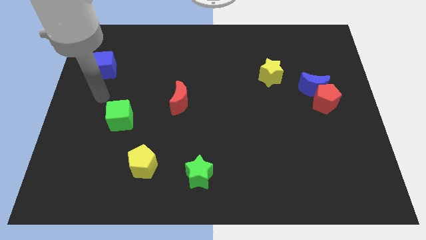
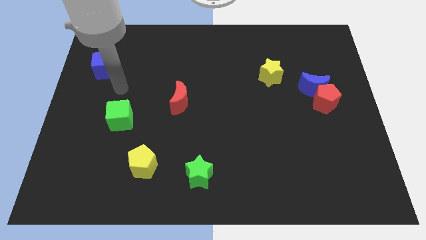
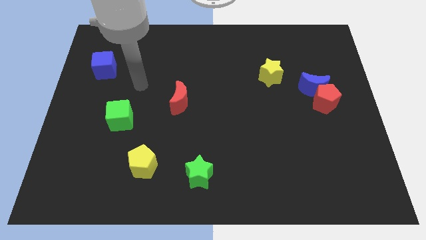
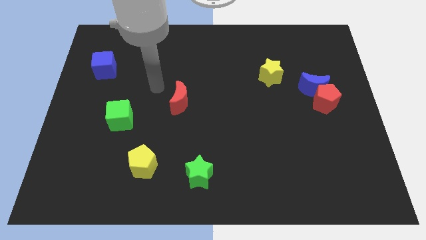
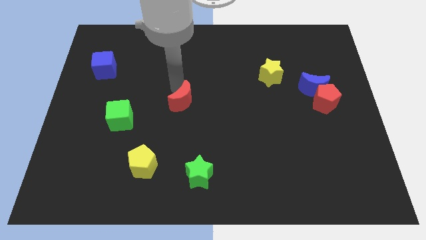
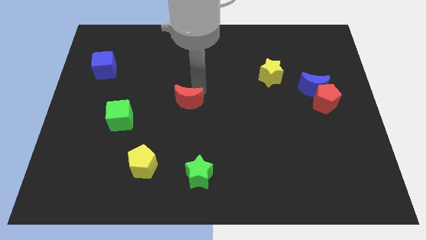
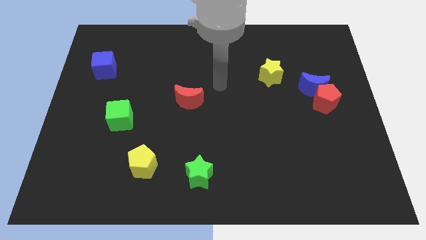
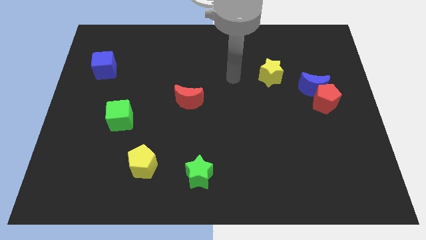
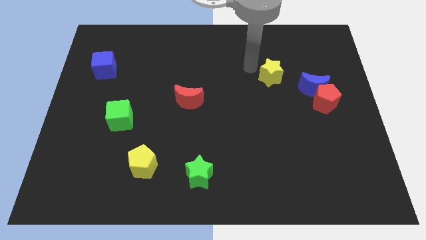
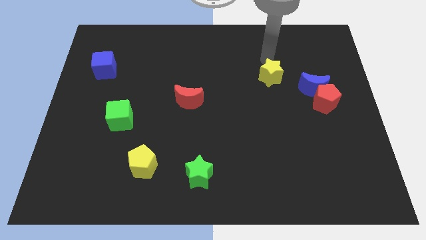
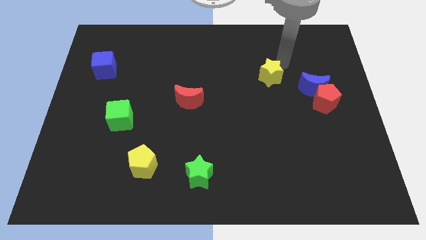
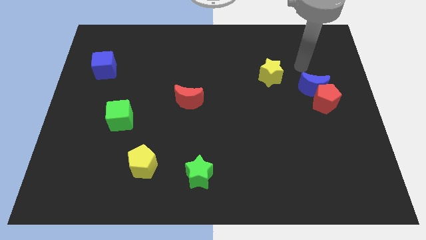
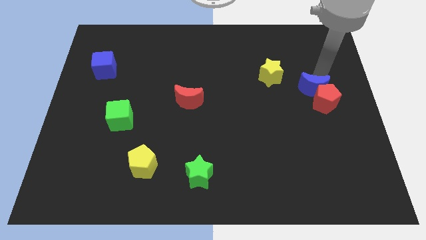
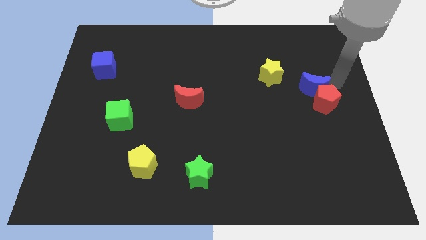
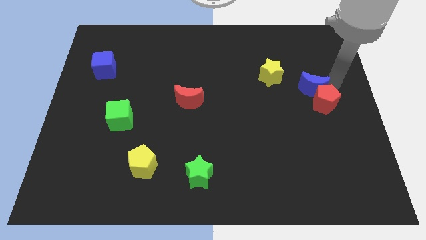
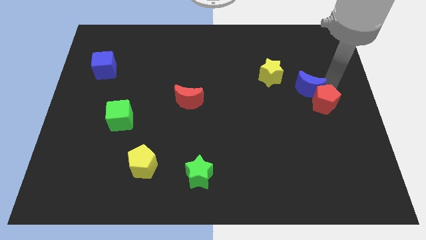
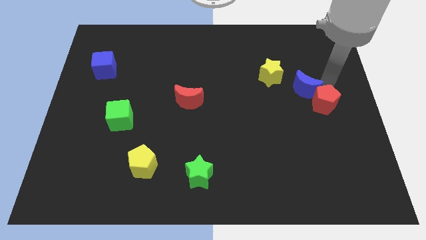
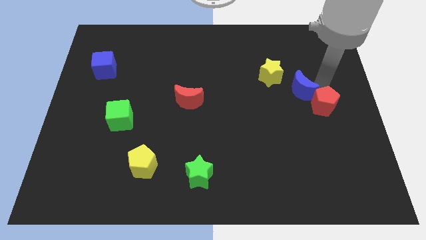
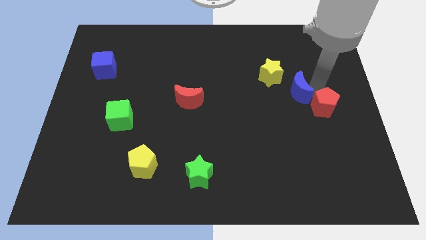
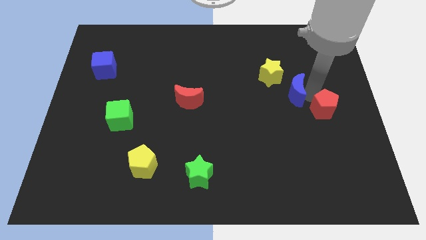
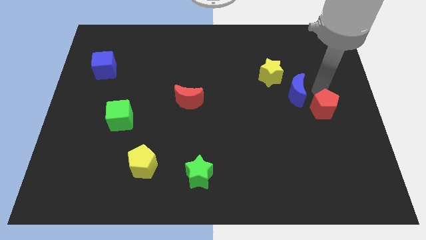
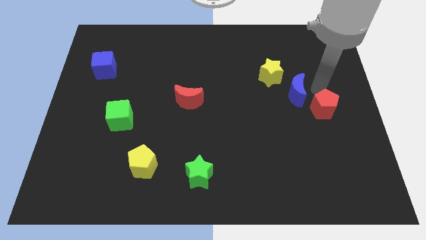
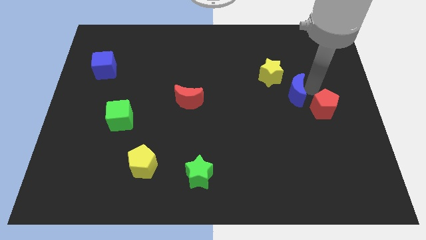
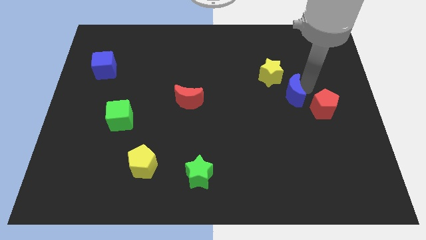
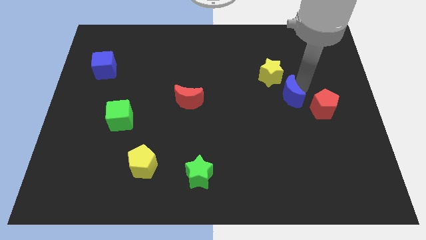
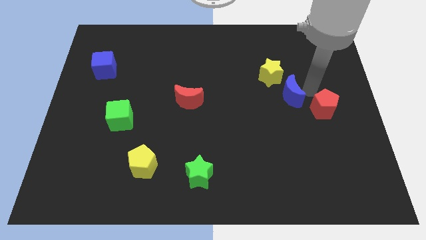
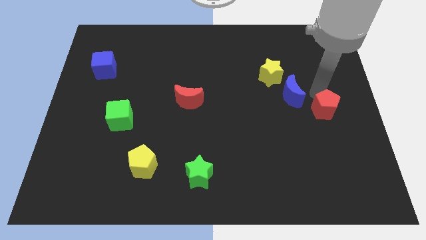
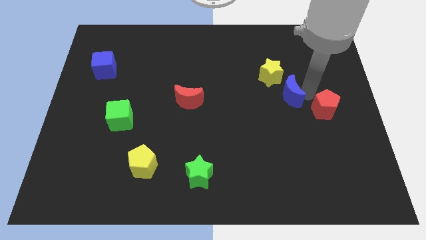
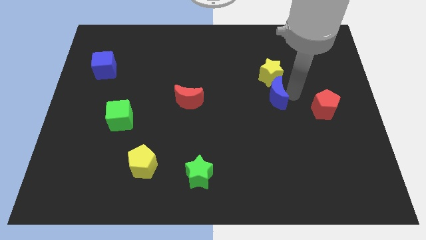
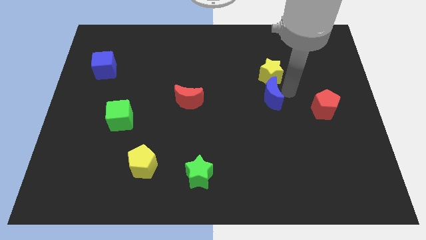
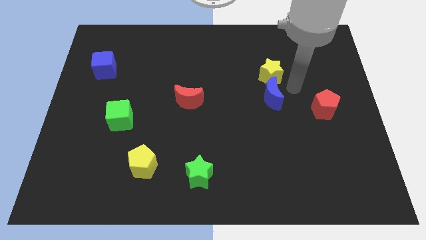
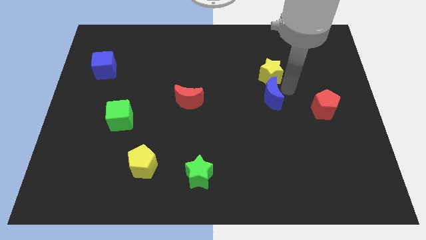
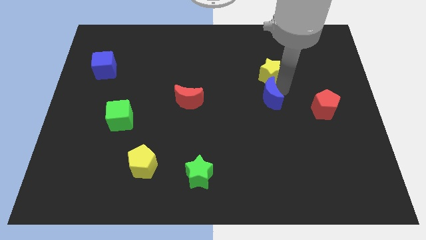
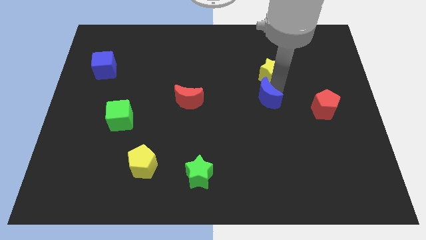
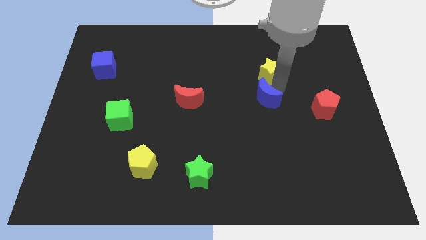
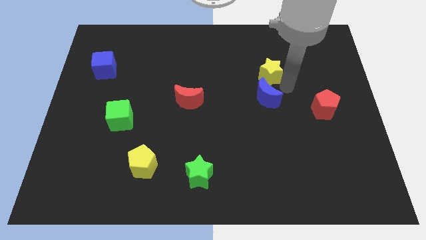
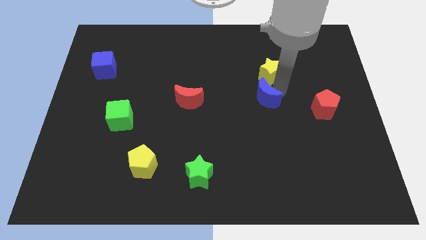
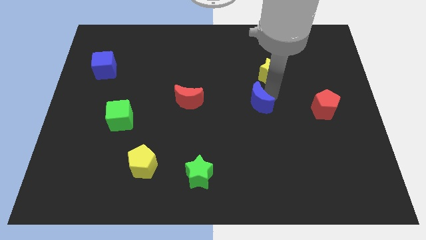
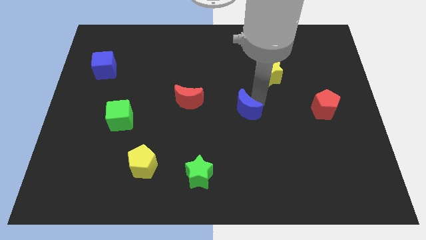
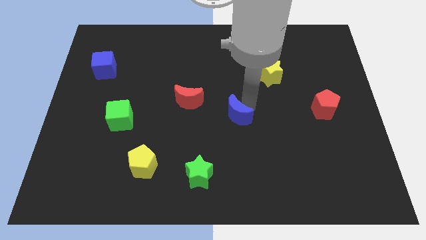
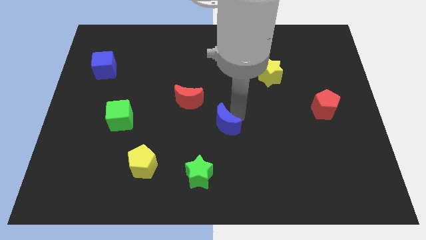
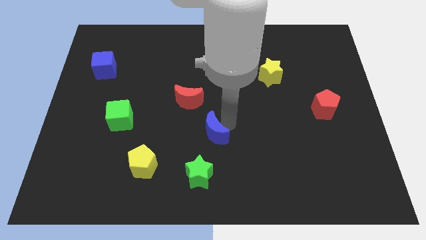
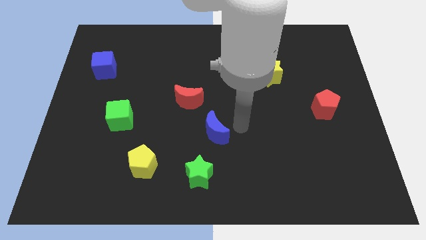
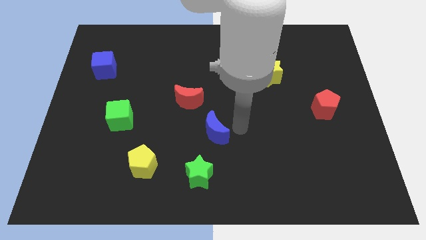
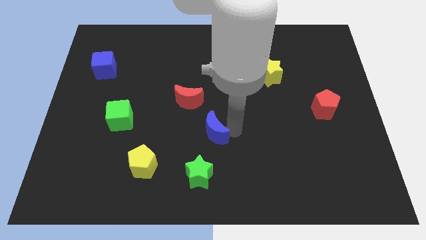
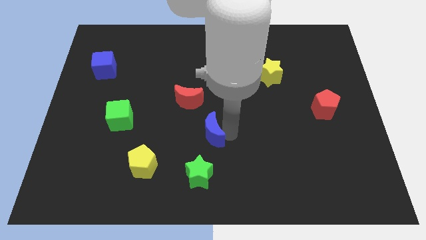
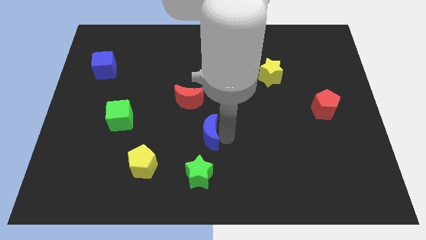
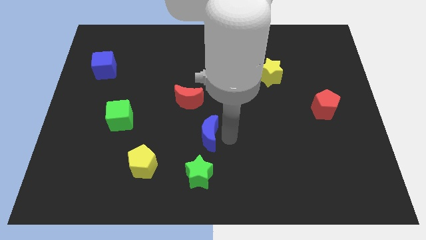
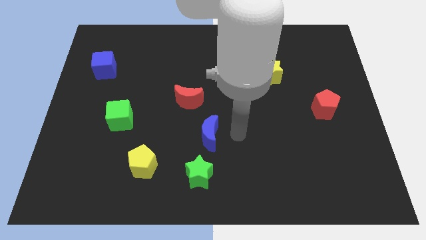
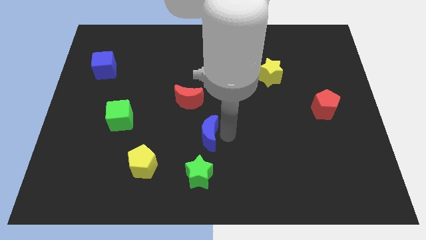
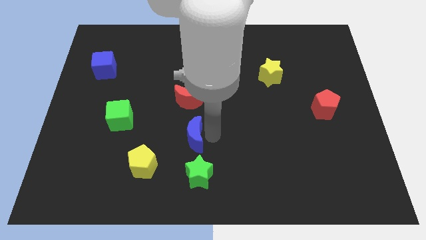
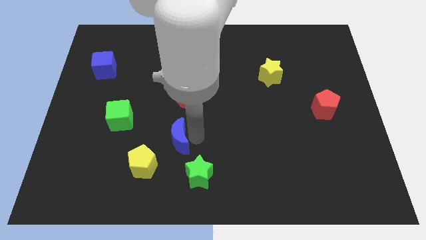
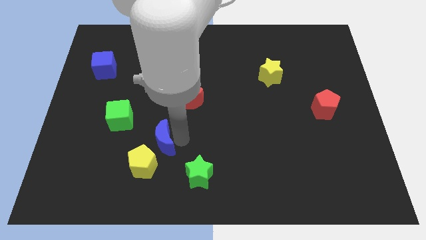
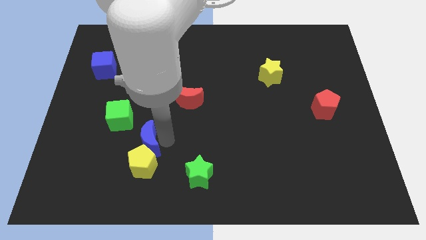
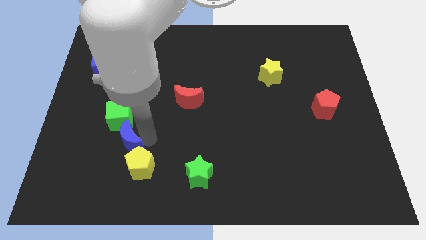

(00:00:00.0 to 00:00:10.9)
slide the blue moon to the bottom side of the green cube

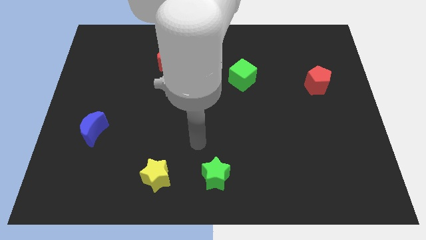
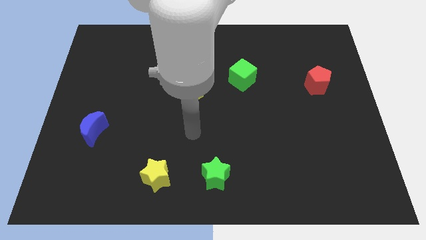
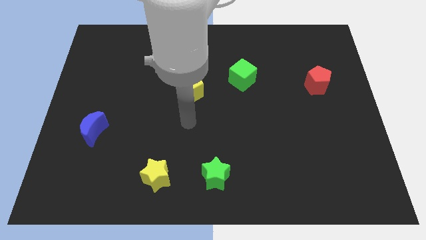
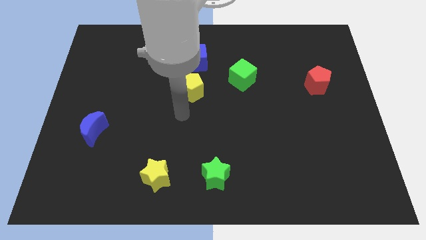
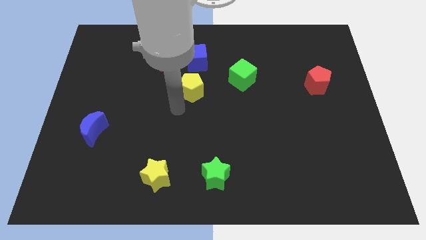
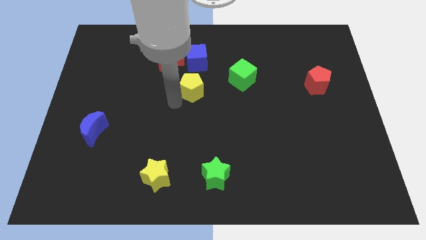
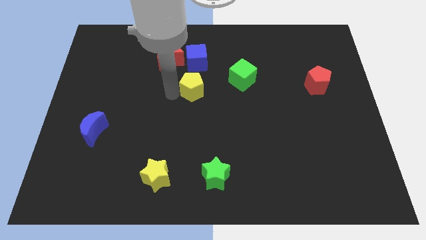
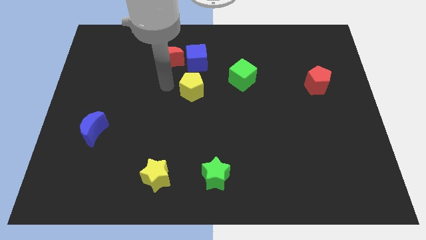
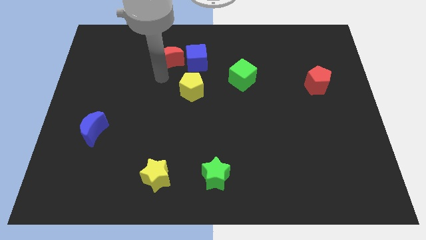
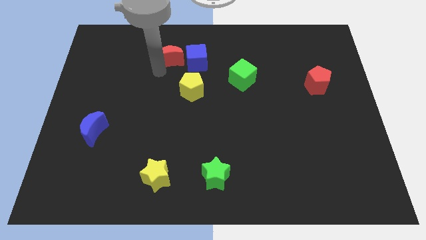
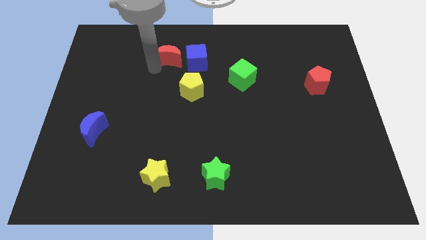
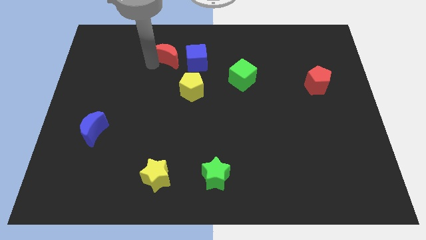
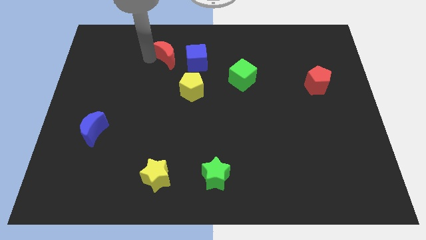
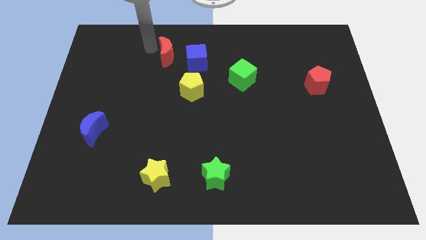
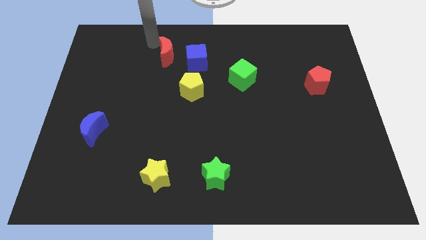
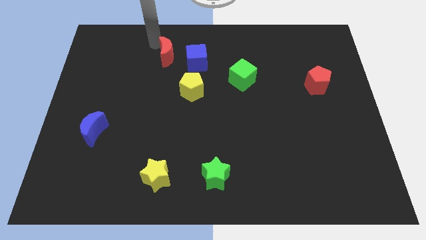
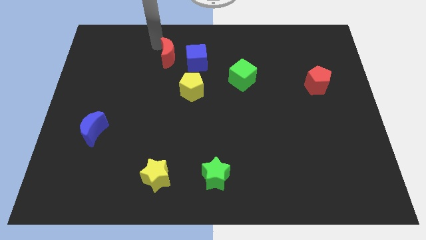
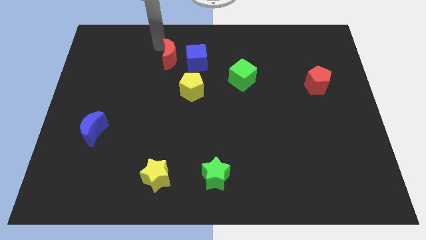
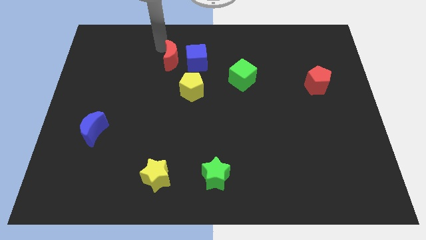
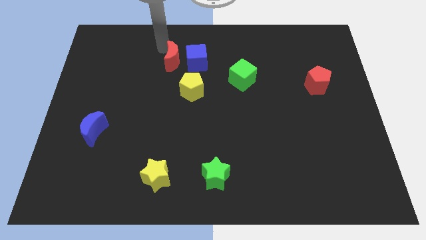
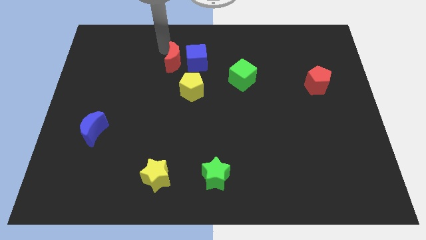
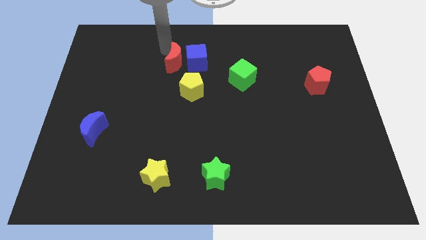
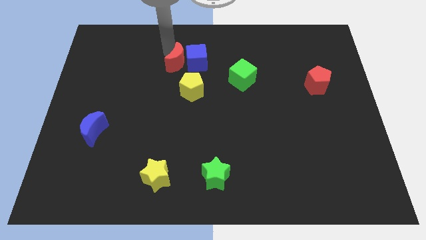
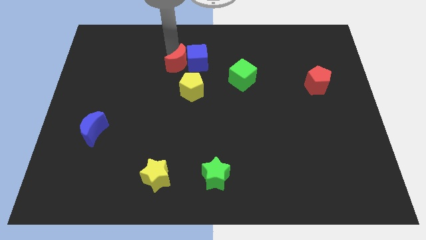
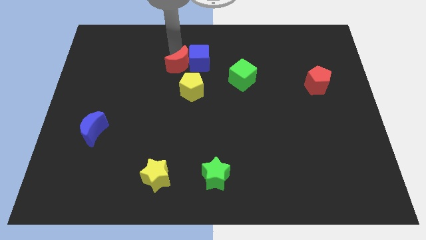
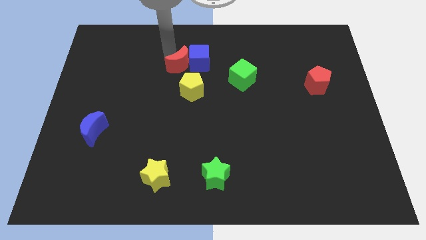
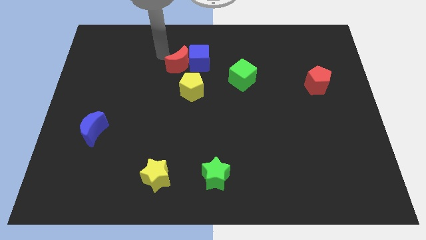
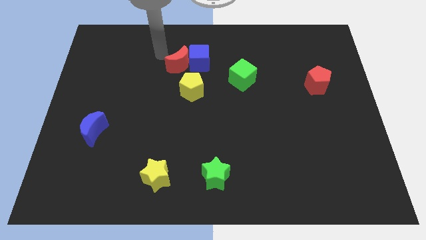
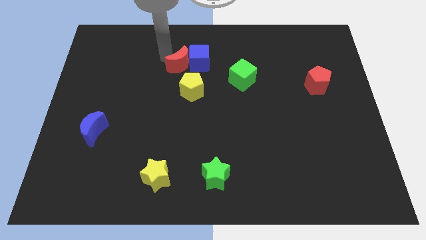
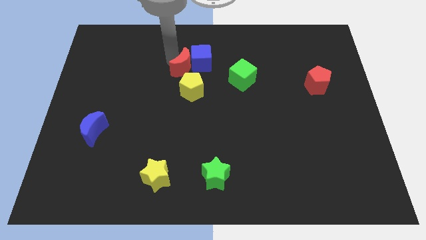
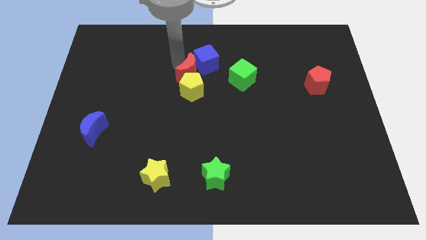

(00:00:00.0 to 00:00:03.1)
push the red moon to the bottom of the blue cube
